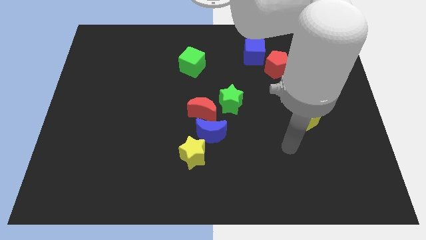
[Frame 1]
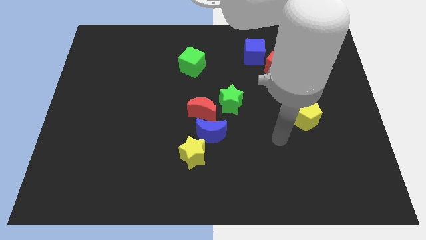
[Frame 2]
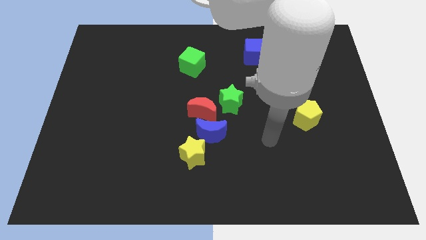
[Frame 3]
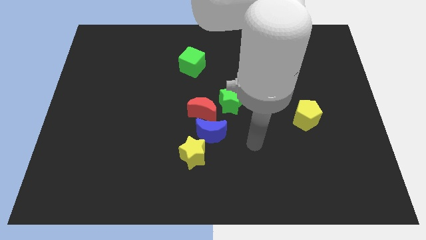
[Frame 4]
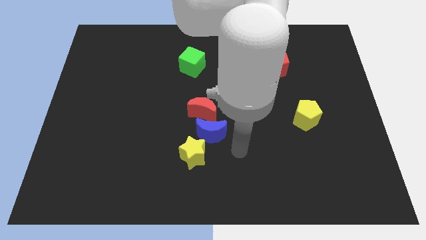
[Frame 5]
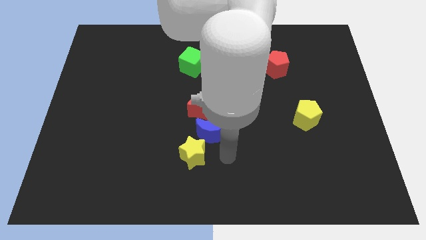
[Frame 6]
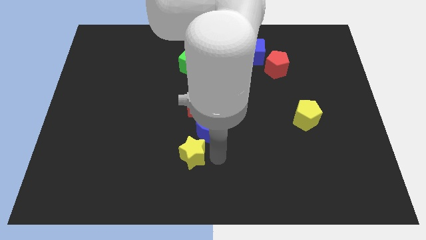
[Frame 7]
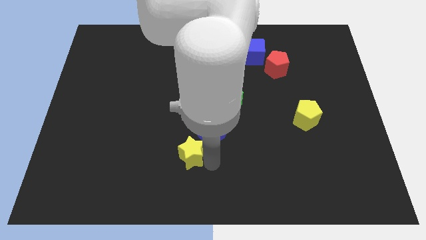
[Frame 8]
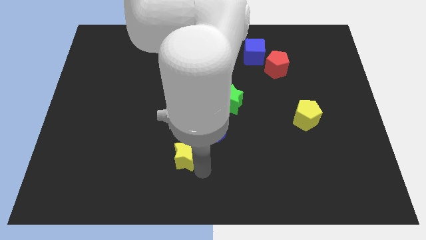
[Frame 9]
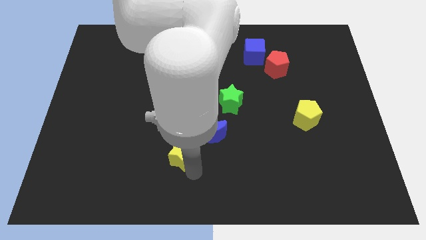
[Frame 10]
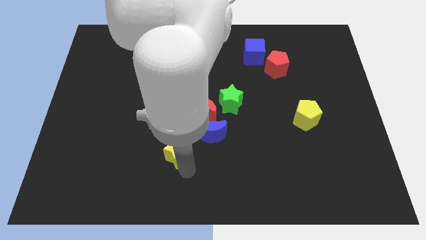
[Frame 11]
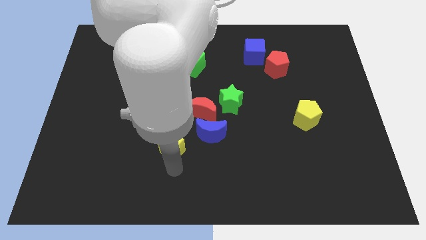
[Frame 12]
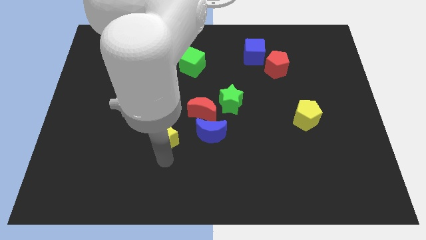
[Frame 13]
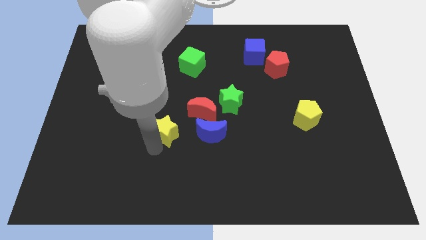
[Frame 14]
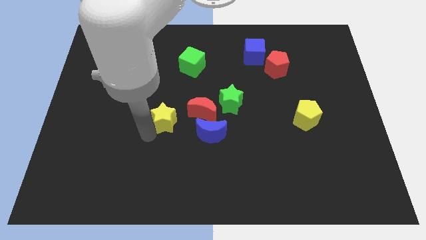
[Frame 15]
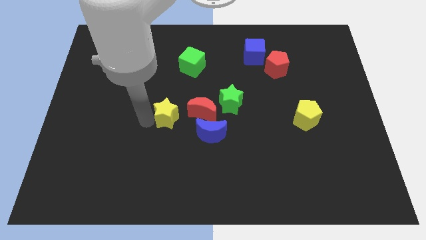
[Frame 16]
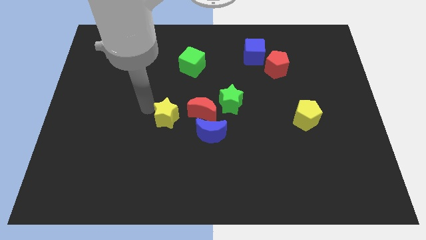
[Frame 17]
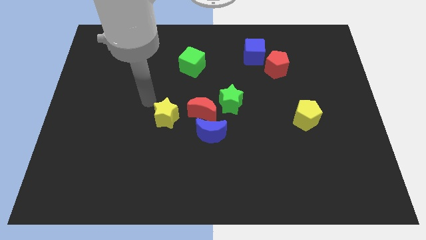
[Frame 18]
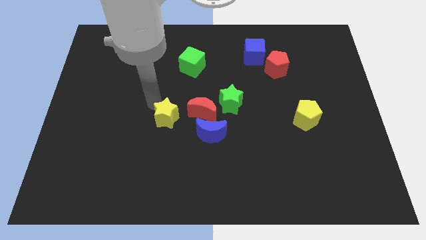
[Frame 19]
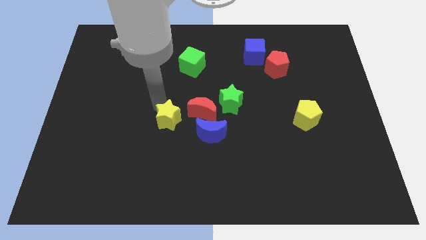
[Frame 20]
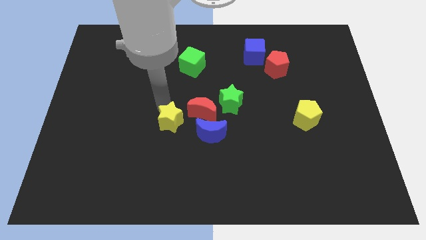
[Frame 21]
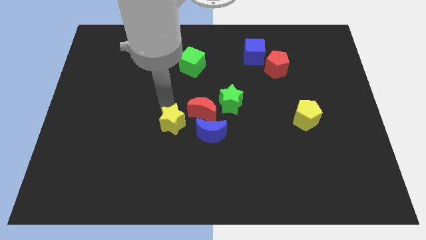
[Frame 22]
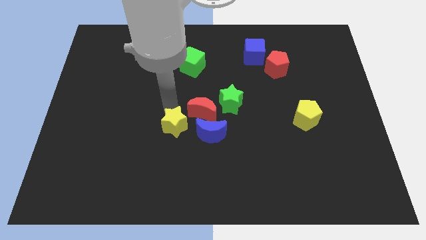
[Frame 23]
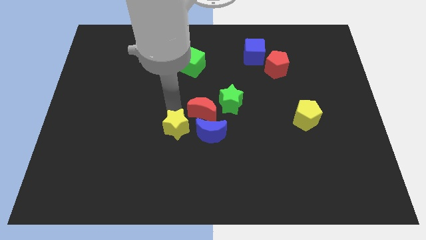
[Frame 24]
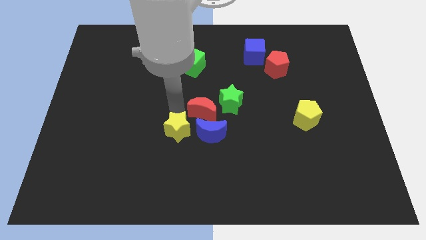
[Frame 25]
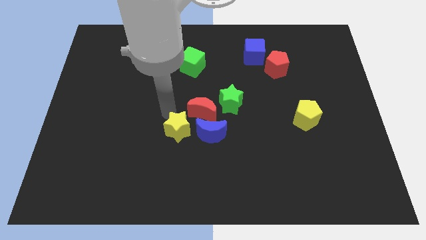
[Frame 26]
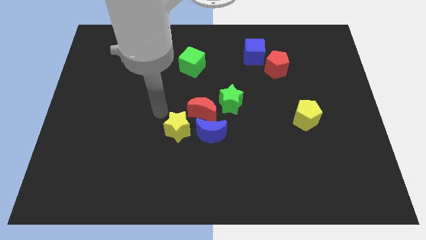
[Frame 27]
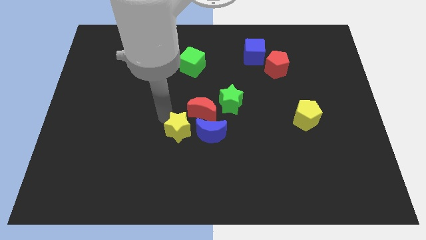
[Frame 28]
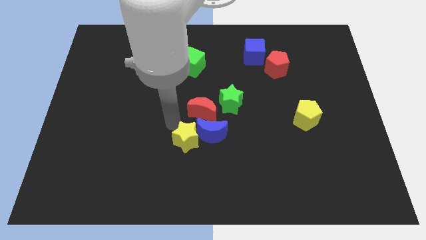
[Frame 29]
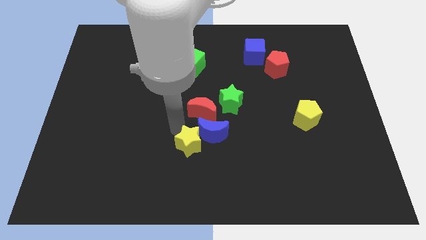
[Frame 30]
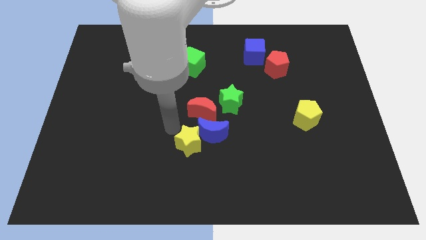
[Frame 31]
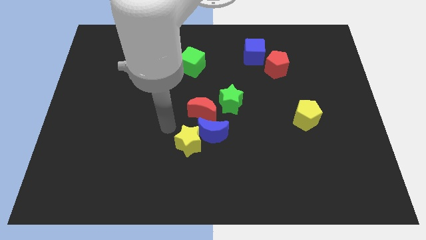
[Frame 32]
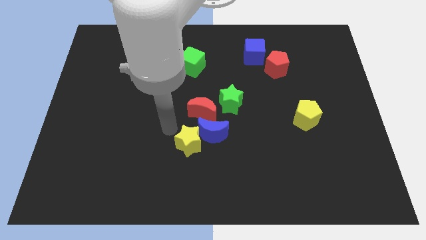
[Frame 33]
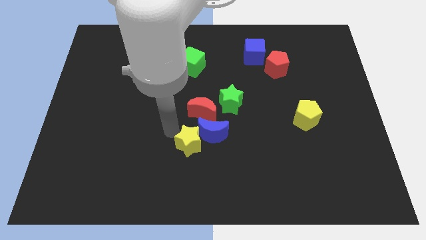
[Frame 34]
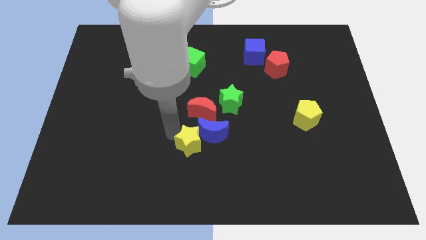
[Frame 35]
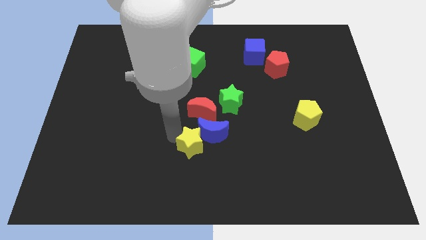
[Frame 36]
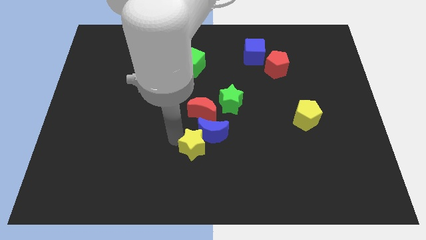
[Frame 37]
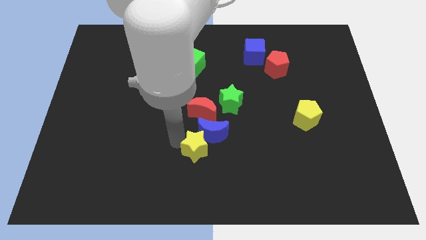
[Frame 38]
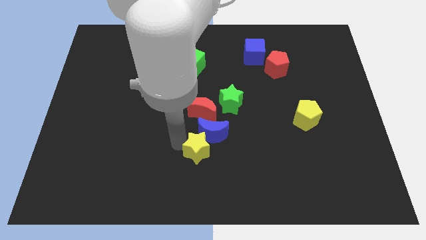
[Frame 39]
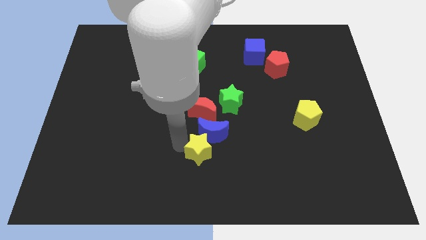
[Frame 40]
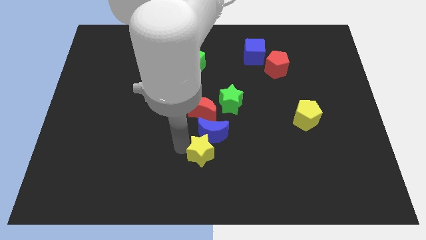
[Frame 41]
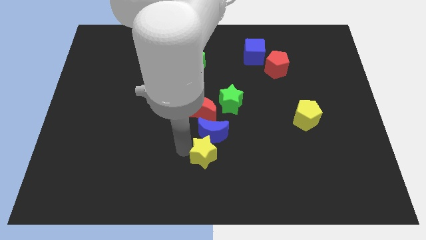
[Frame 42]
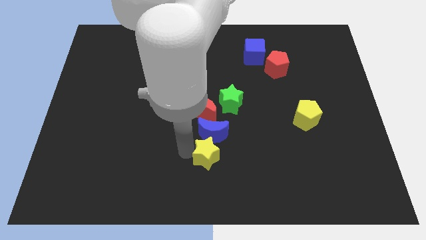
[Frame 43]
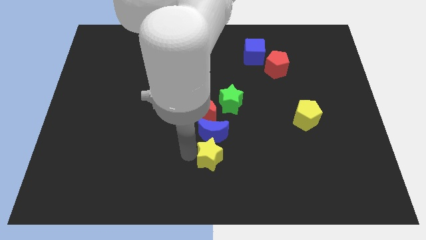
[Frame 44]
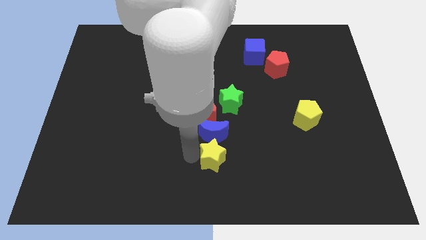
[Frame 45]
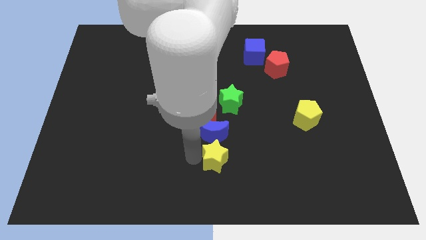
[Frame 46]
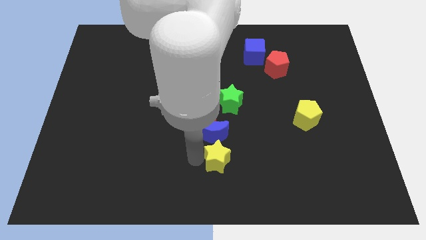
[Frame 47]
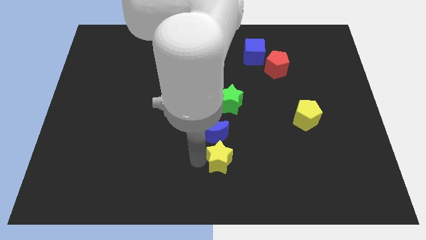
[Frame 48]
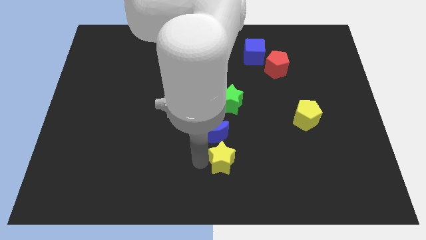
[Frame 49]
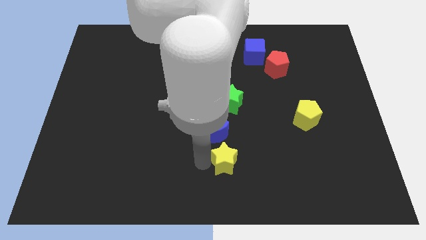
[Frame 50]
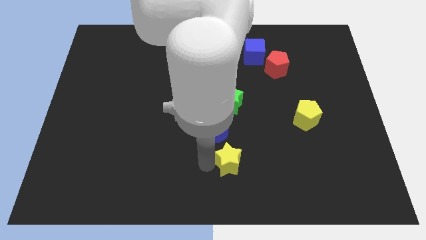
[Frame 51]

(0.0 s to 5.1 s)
slightly push the yellow star right

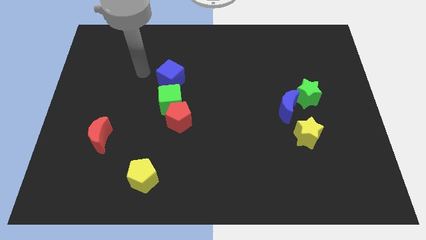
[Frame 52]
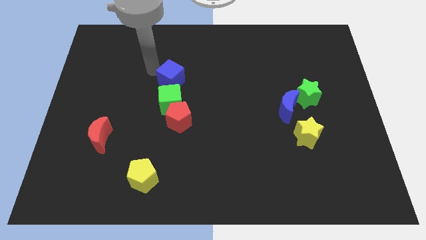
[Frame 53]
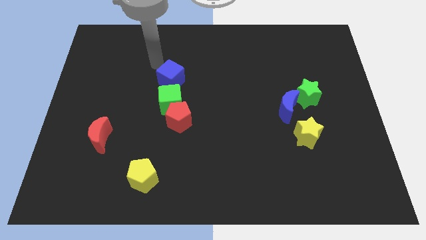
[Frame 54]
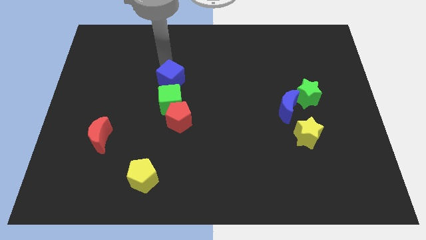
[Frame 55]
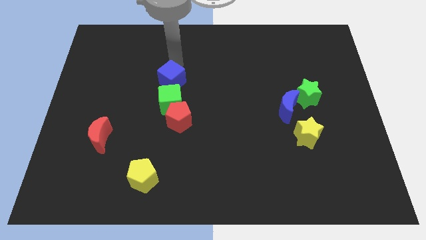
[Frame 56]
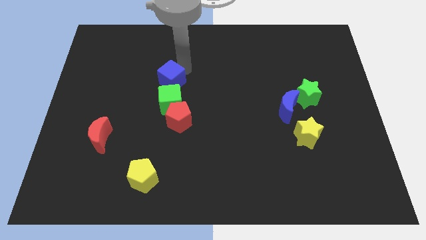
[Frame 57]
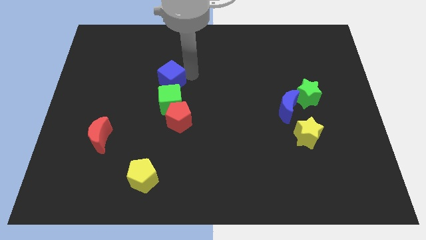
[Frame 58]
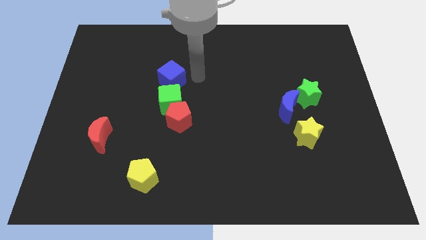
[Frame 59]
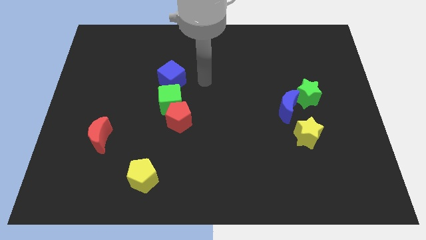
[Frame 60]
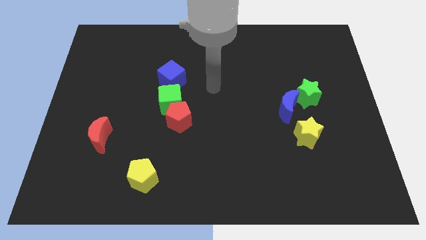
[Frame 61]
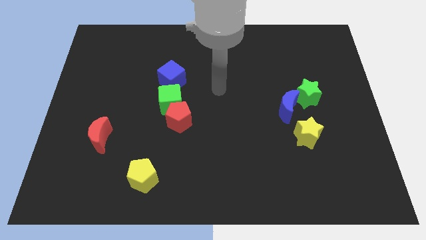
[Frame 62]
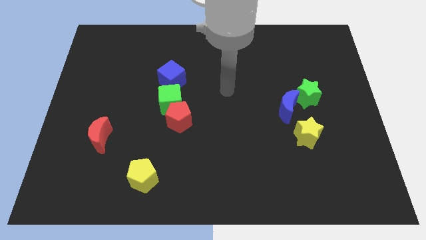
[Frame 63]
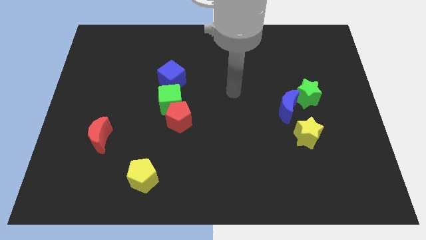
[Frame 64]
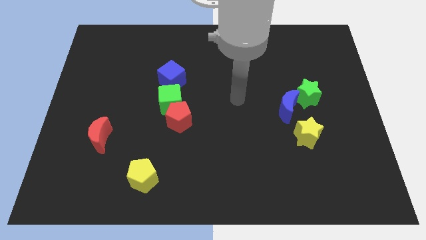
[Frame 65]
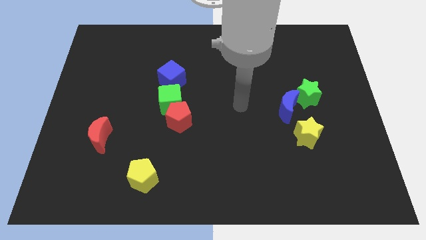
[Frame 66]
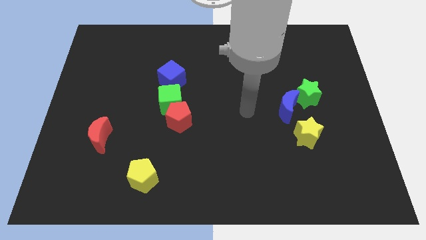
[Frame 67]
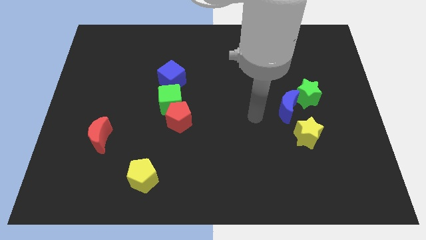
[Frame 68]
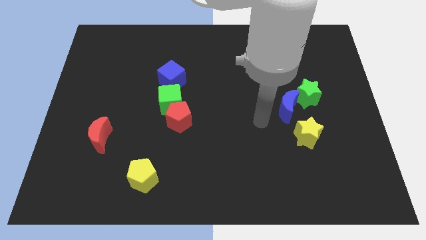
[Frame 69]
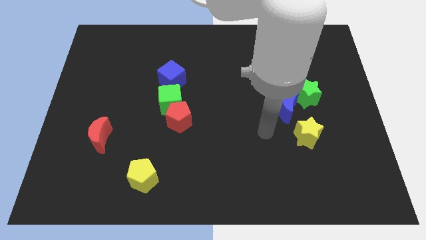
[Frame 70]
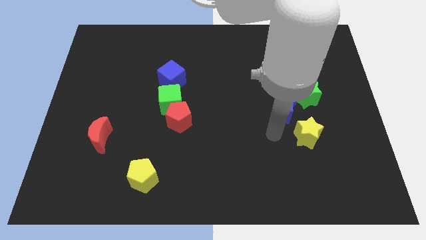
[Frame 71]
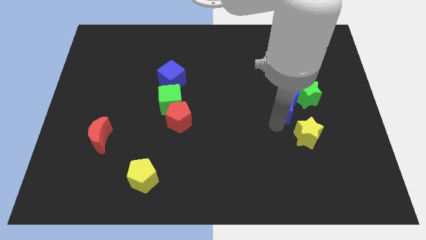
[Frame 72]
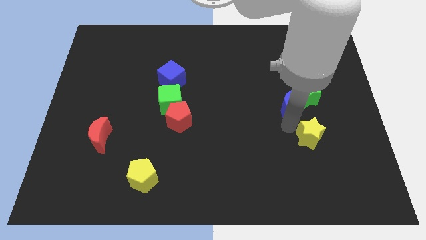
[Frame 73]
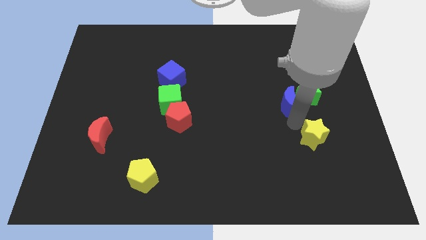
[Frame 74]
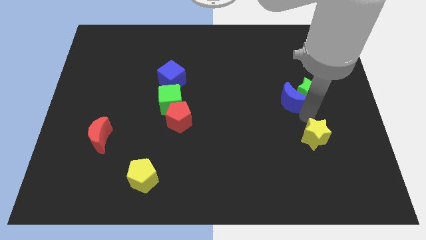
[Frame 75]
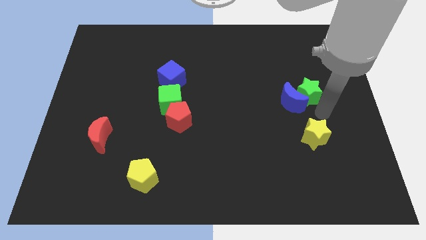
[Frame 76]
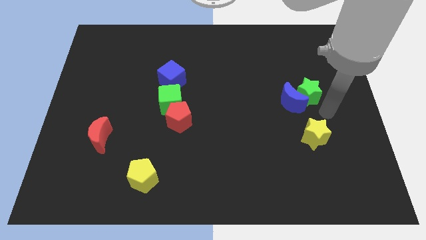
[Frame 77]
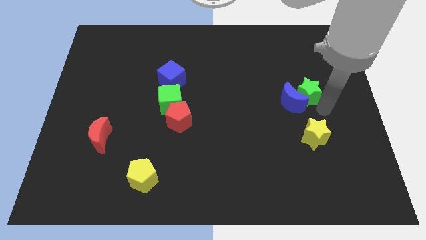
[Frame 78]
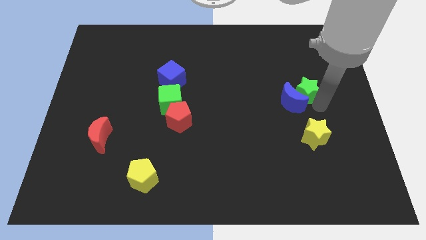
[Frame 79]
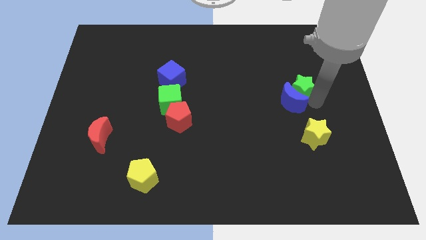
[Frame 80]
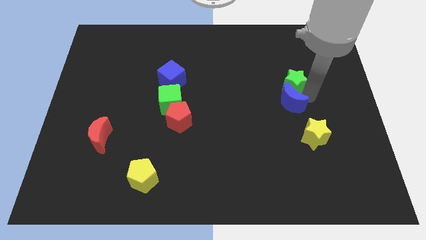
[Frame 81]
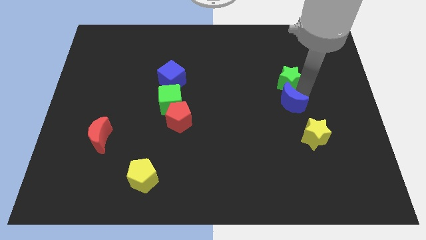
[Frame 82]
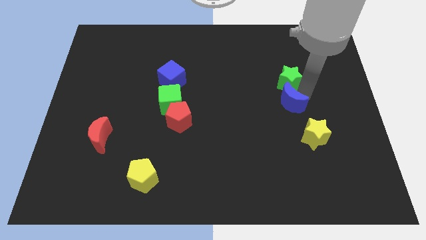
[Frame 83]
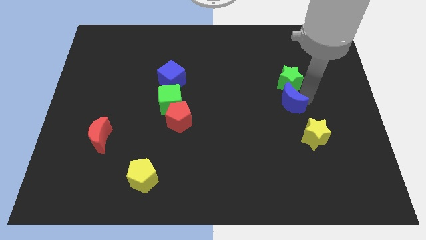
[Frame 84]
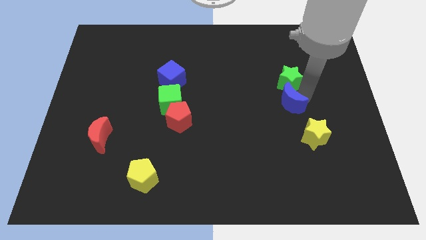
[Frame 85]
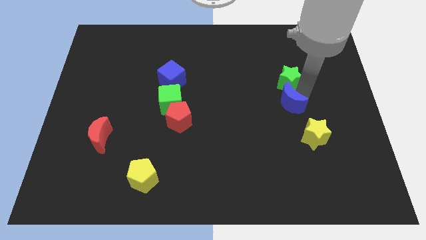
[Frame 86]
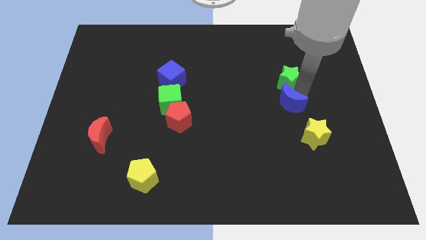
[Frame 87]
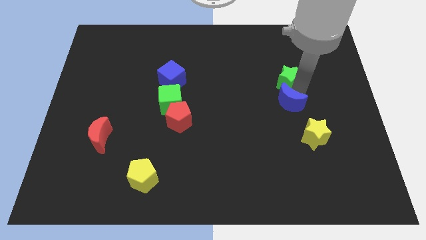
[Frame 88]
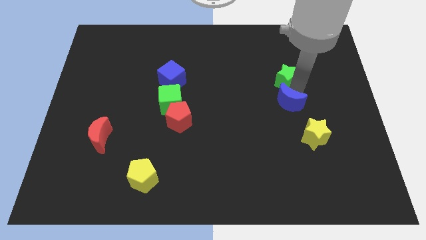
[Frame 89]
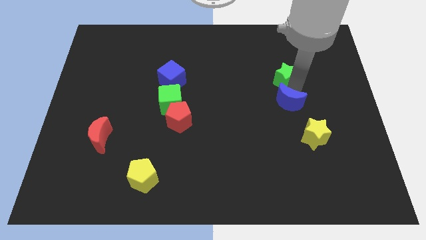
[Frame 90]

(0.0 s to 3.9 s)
slide the green star up and then left a little bit
